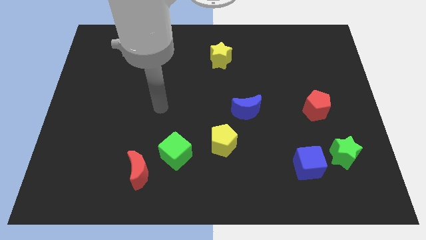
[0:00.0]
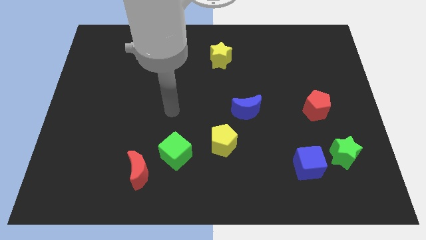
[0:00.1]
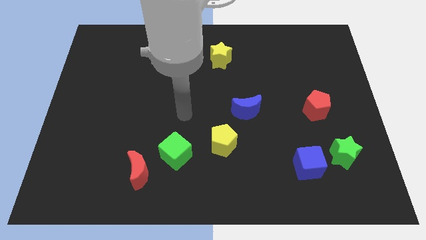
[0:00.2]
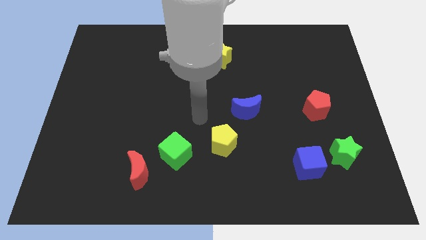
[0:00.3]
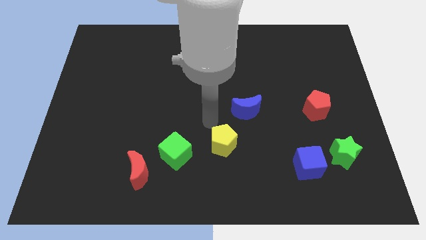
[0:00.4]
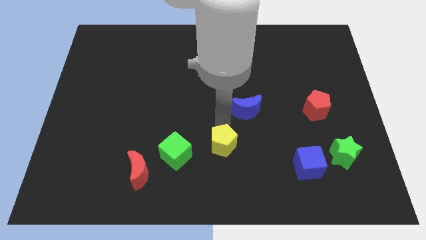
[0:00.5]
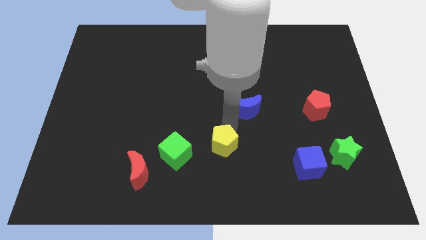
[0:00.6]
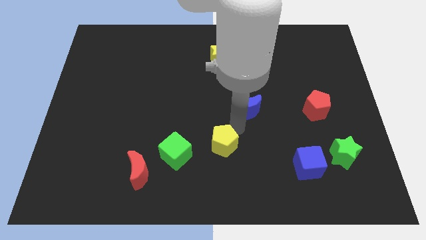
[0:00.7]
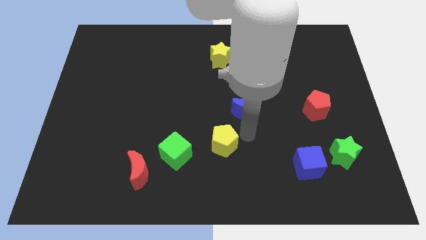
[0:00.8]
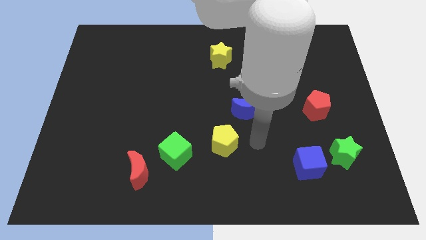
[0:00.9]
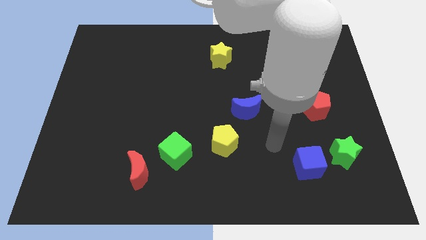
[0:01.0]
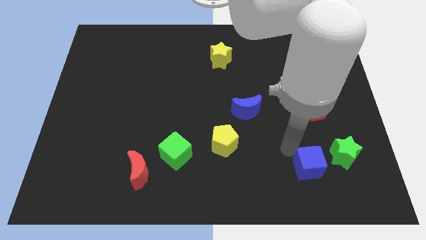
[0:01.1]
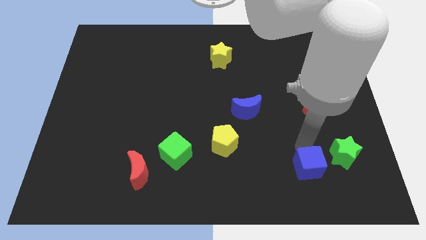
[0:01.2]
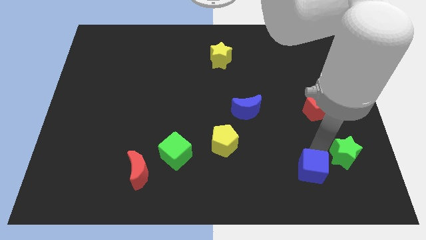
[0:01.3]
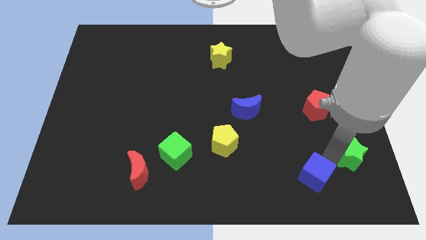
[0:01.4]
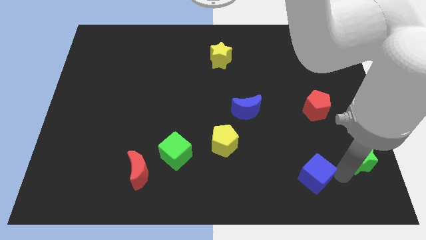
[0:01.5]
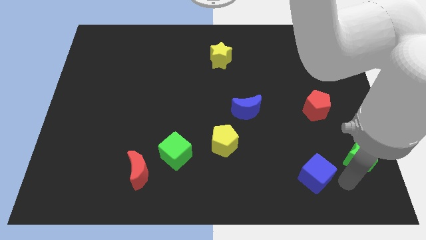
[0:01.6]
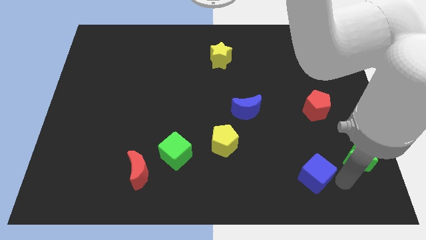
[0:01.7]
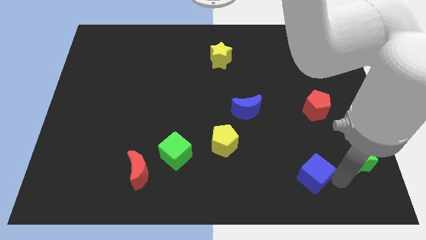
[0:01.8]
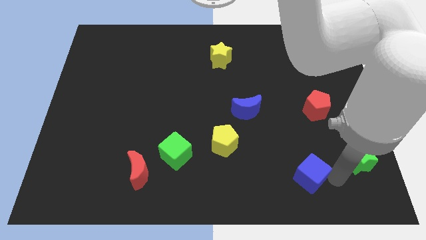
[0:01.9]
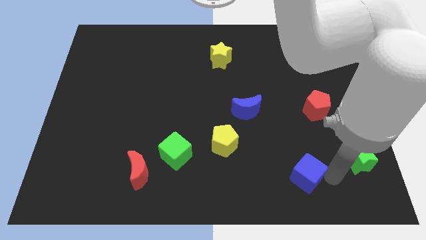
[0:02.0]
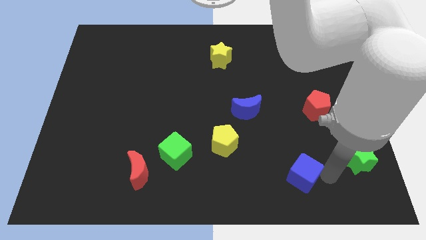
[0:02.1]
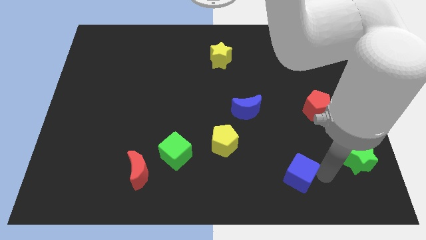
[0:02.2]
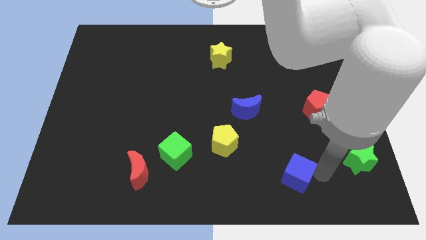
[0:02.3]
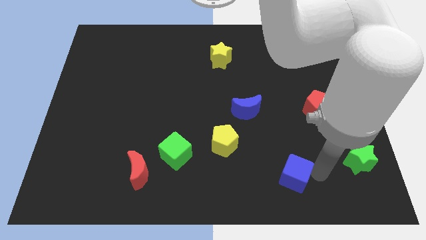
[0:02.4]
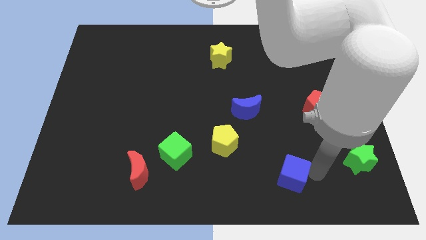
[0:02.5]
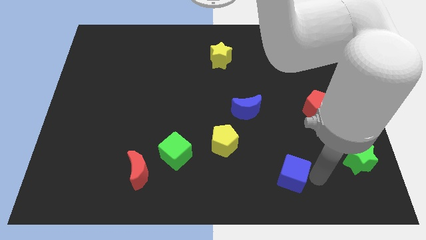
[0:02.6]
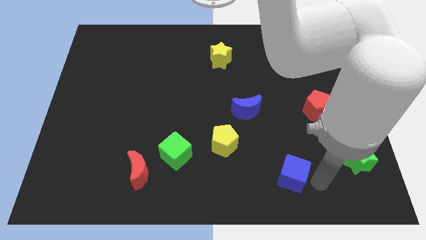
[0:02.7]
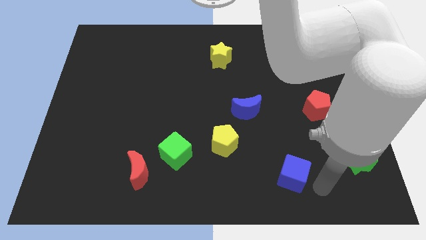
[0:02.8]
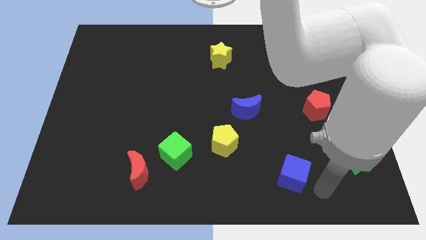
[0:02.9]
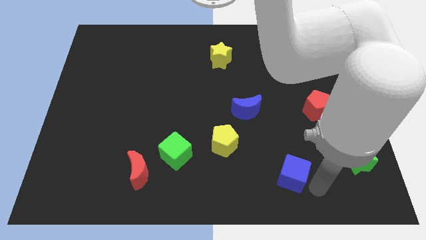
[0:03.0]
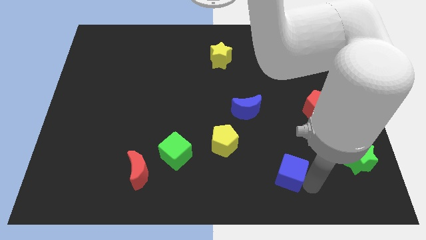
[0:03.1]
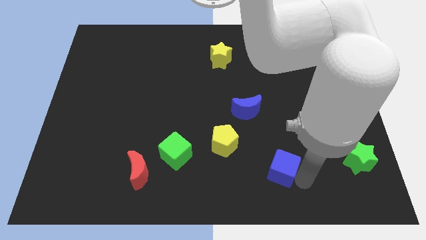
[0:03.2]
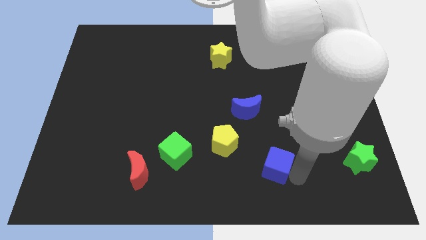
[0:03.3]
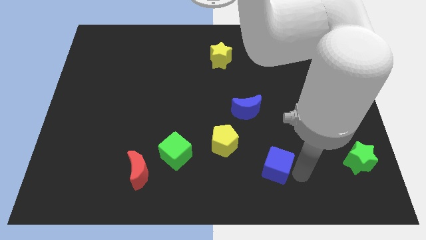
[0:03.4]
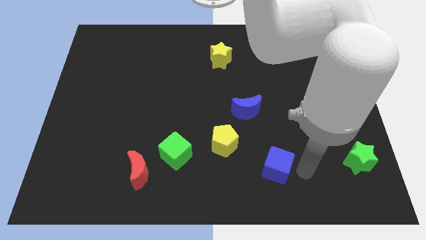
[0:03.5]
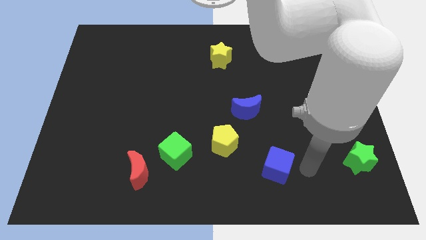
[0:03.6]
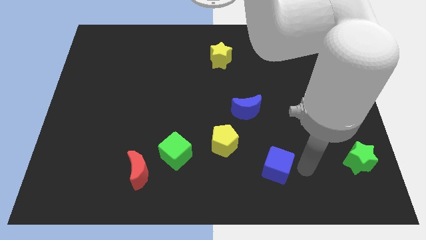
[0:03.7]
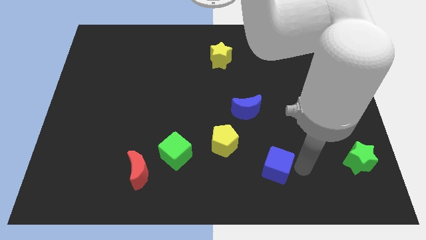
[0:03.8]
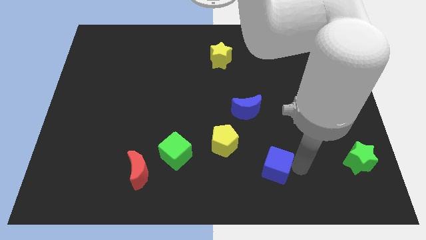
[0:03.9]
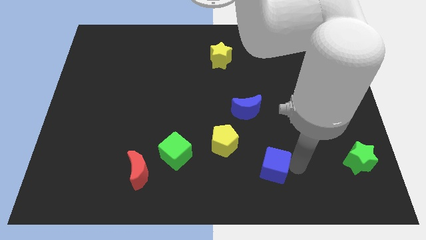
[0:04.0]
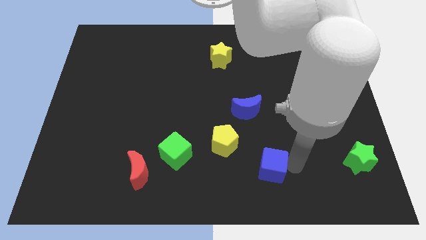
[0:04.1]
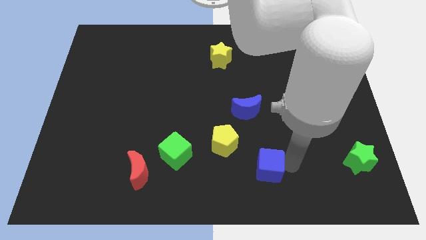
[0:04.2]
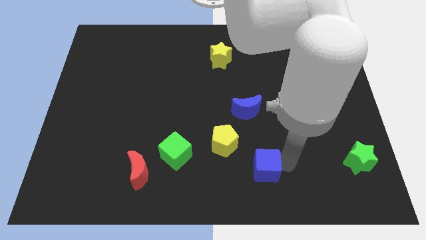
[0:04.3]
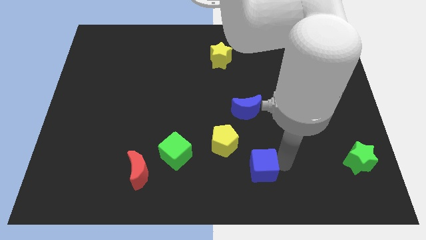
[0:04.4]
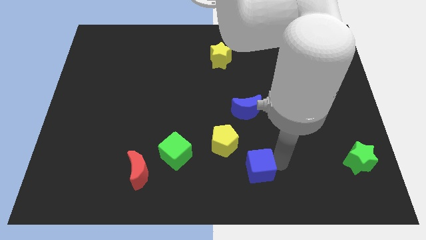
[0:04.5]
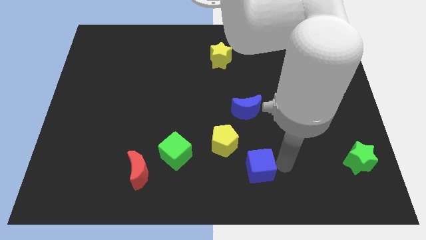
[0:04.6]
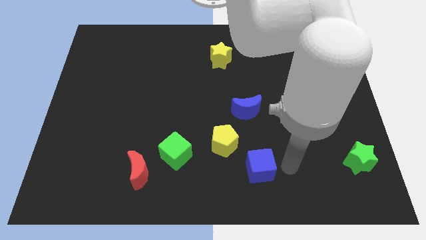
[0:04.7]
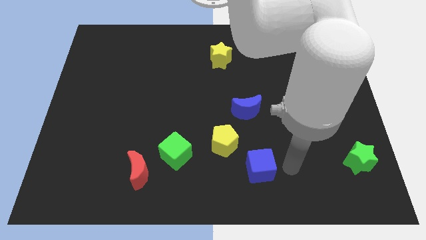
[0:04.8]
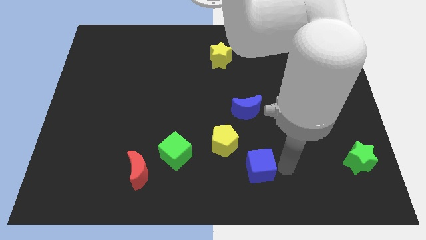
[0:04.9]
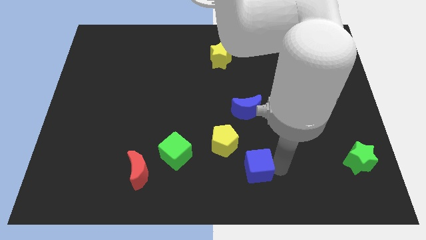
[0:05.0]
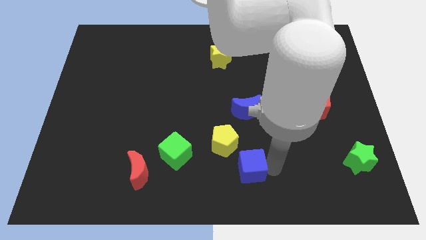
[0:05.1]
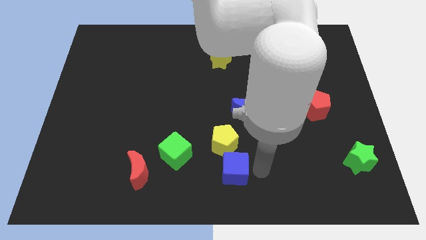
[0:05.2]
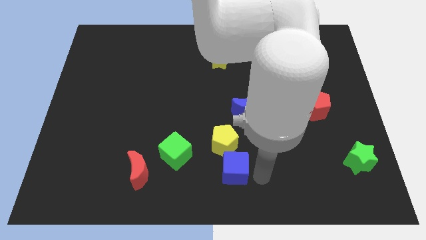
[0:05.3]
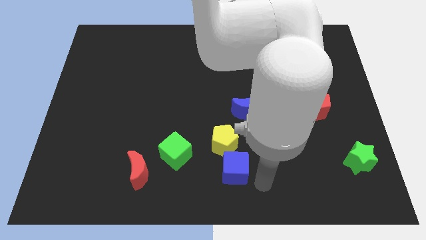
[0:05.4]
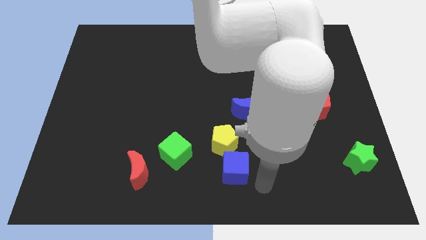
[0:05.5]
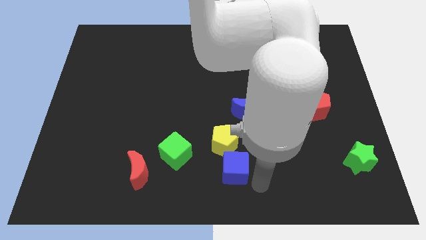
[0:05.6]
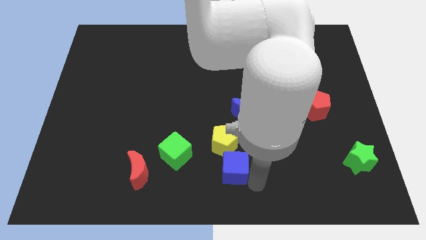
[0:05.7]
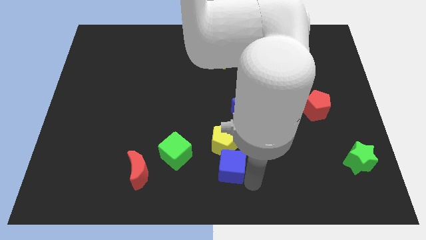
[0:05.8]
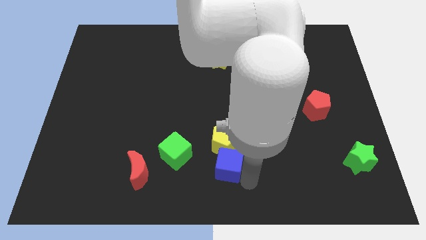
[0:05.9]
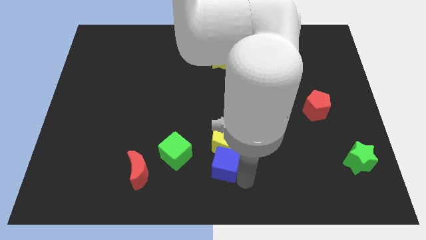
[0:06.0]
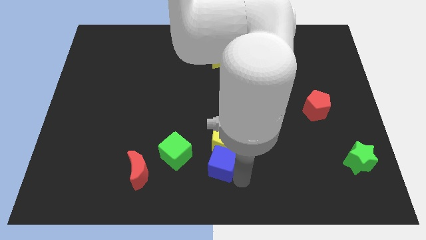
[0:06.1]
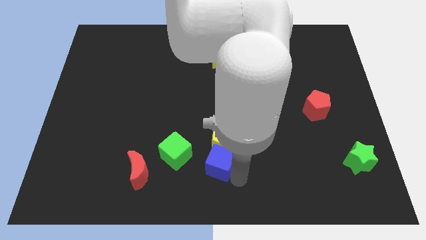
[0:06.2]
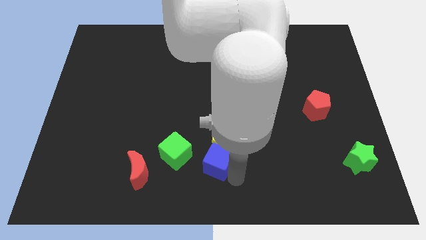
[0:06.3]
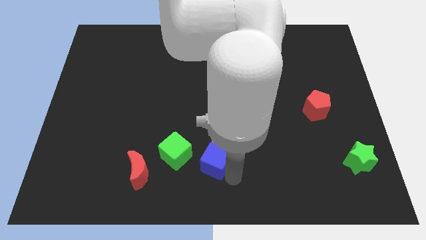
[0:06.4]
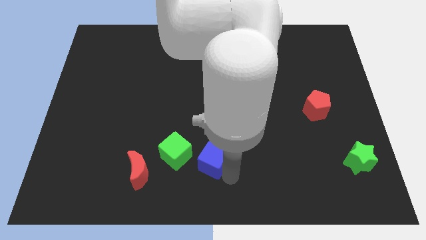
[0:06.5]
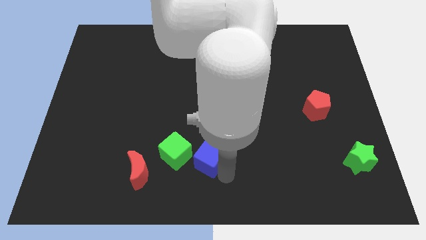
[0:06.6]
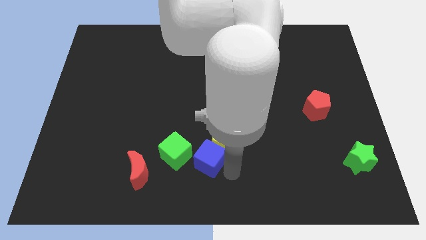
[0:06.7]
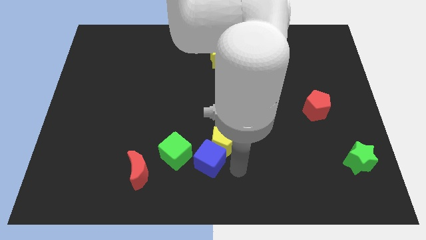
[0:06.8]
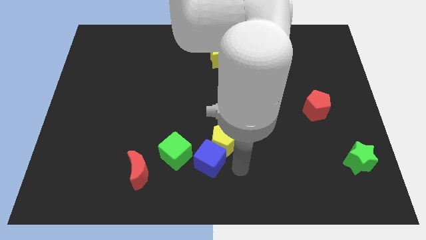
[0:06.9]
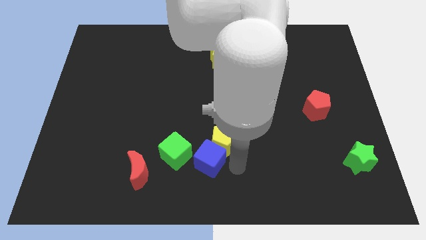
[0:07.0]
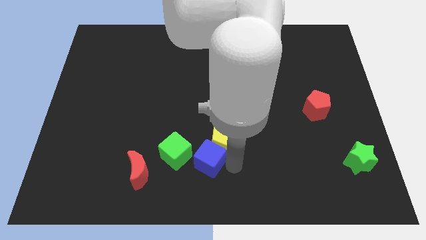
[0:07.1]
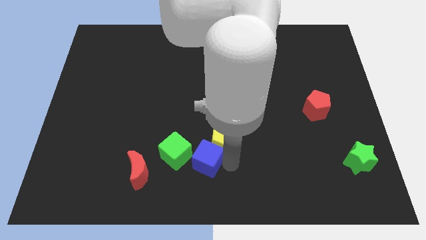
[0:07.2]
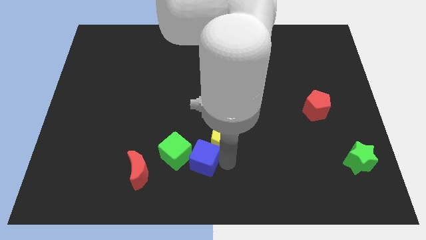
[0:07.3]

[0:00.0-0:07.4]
push the blue cube next to the green cube
